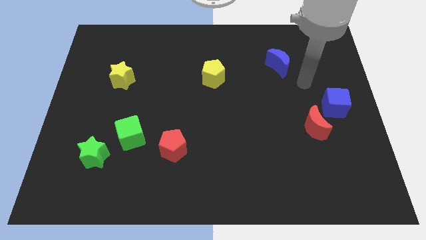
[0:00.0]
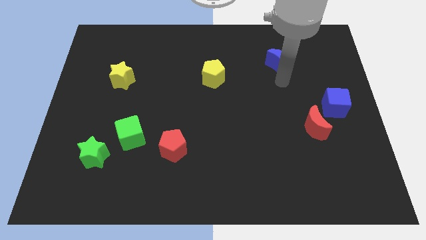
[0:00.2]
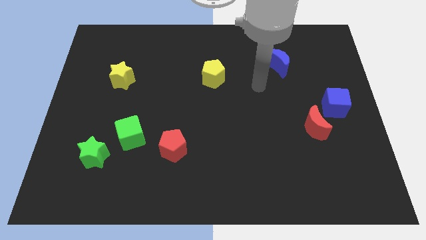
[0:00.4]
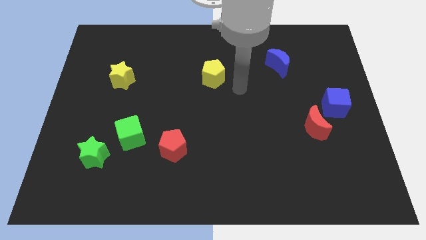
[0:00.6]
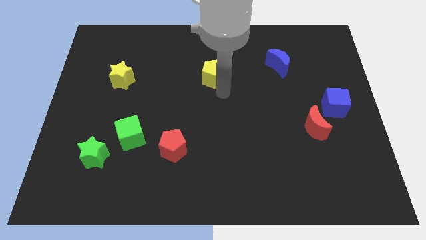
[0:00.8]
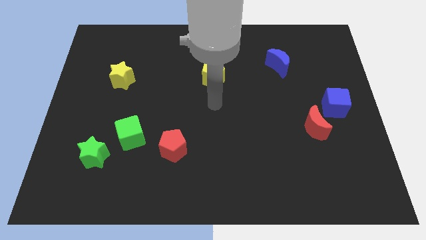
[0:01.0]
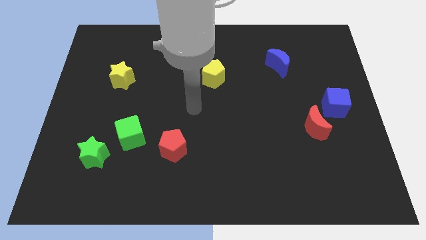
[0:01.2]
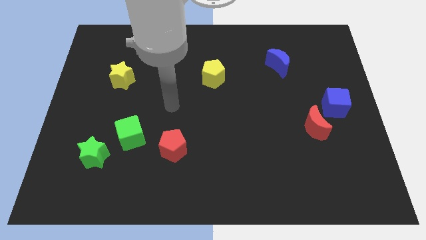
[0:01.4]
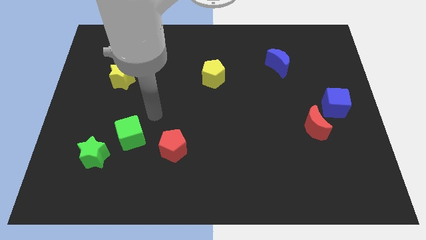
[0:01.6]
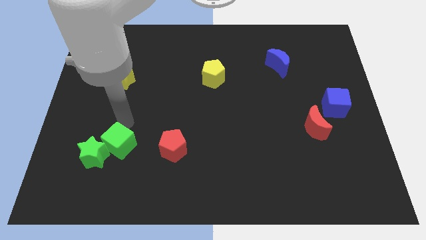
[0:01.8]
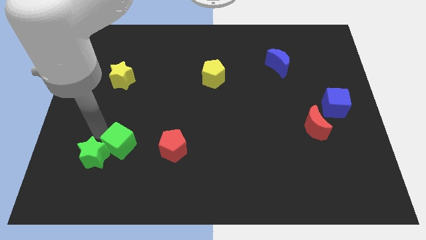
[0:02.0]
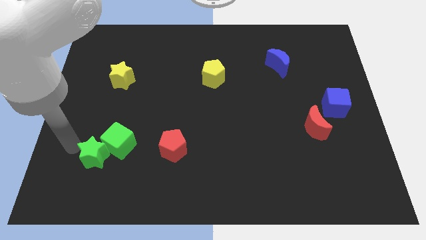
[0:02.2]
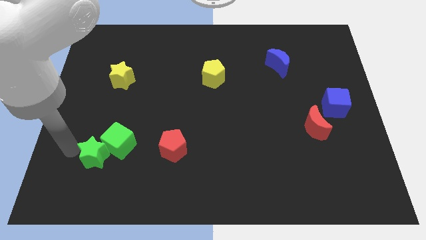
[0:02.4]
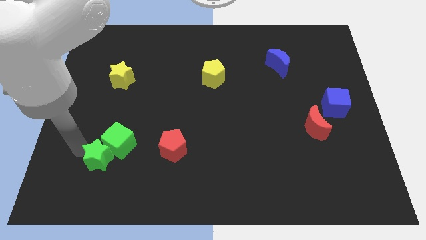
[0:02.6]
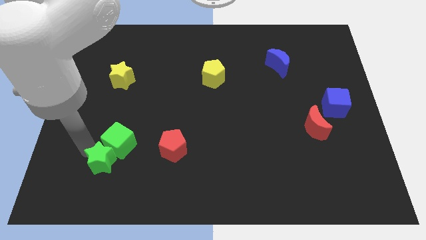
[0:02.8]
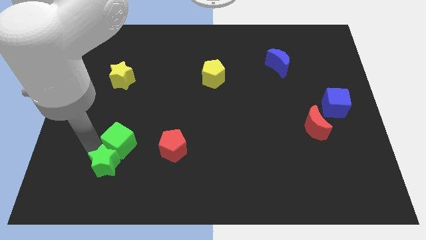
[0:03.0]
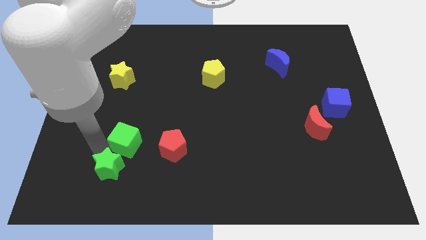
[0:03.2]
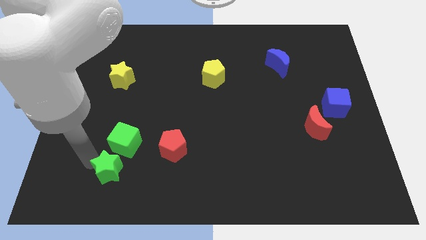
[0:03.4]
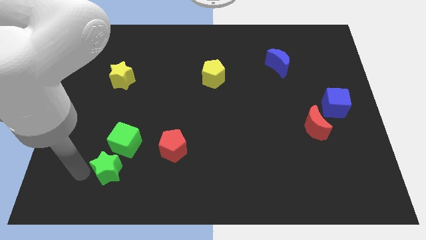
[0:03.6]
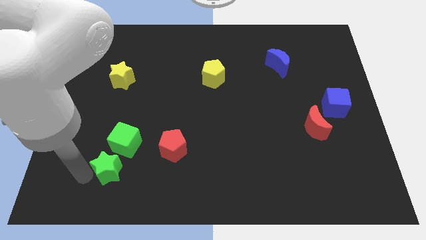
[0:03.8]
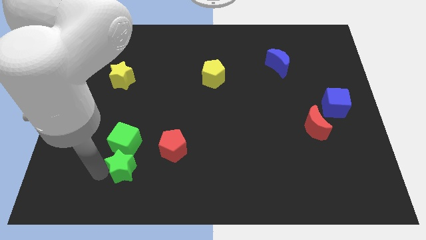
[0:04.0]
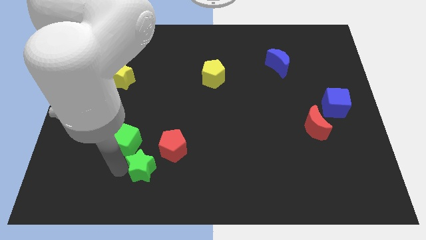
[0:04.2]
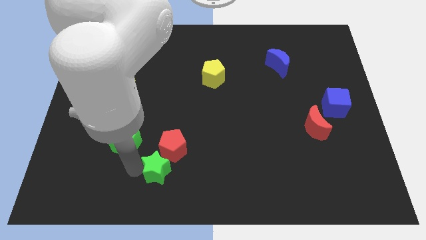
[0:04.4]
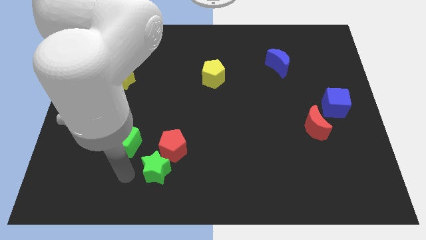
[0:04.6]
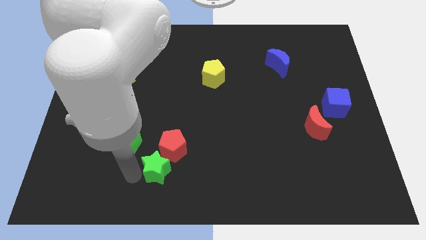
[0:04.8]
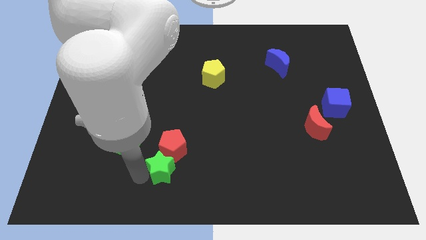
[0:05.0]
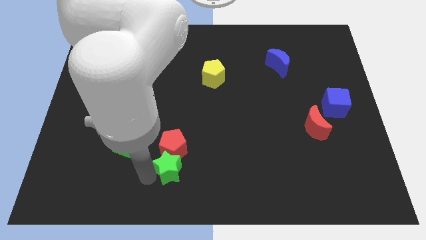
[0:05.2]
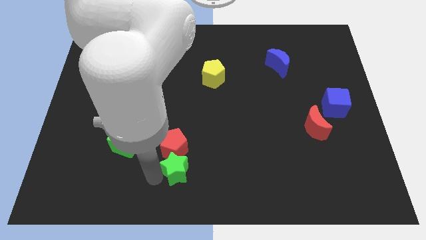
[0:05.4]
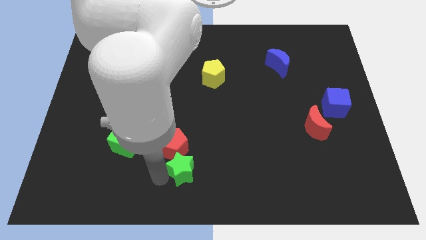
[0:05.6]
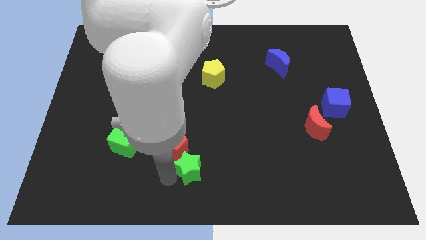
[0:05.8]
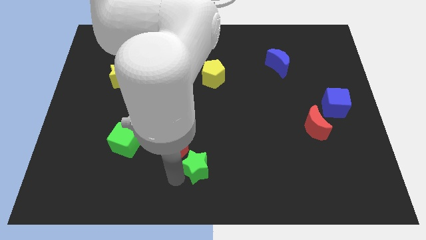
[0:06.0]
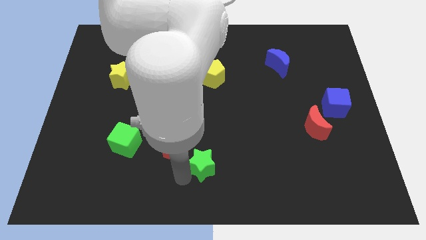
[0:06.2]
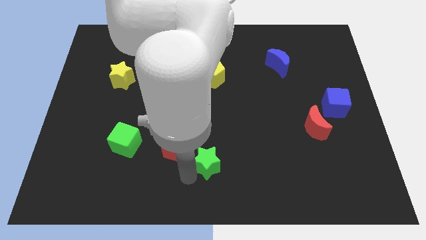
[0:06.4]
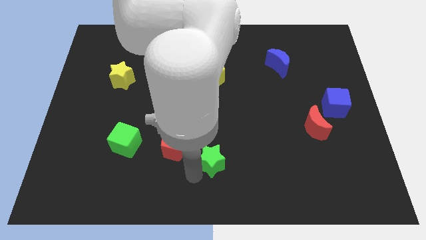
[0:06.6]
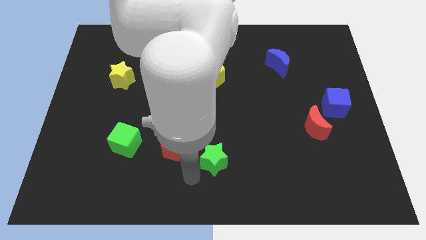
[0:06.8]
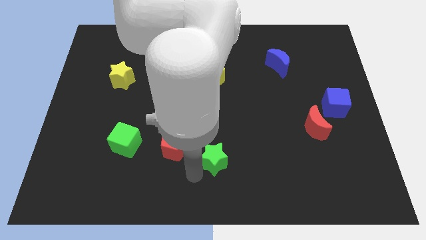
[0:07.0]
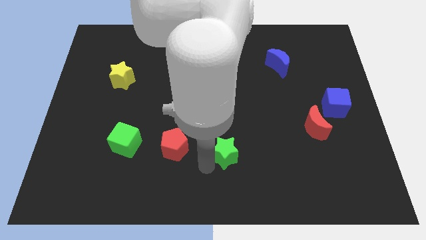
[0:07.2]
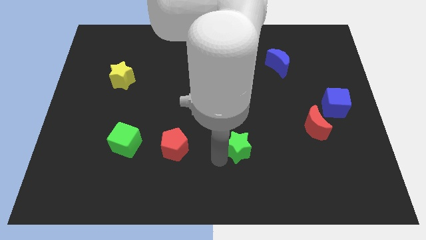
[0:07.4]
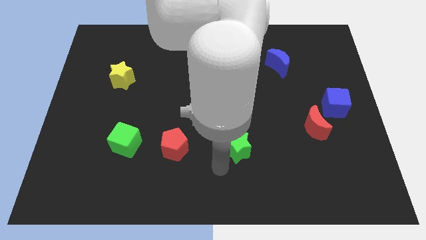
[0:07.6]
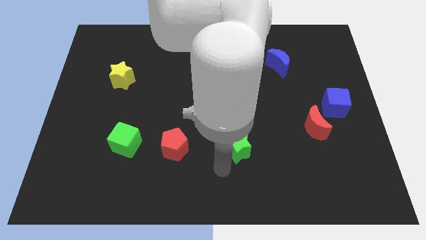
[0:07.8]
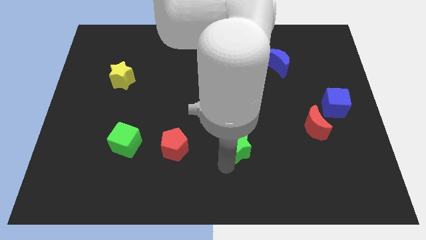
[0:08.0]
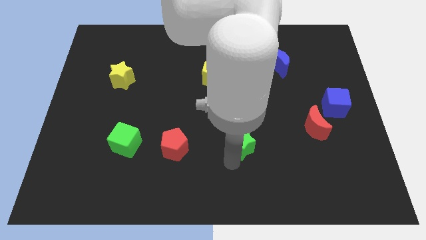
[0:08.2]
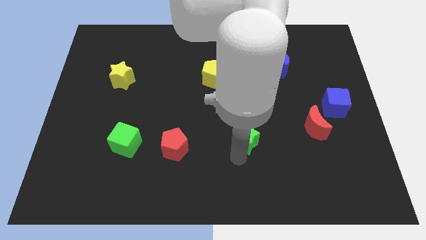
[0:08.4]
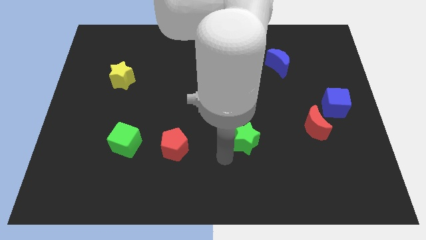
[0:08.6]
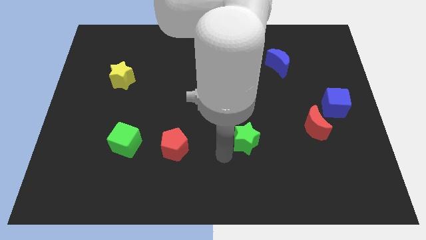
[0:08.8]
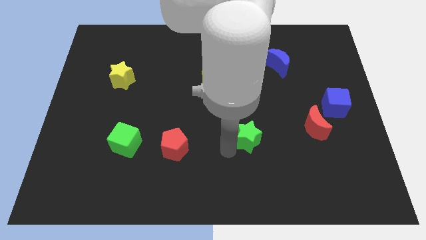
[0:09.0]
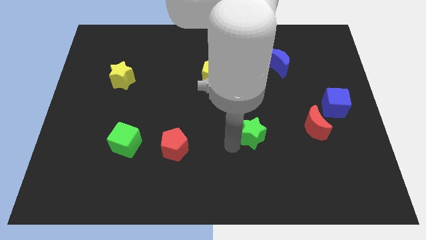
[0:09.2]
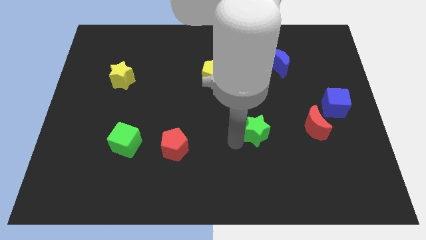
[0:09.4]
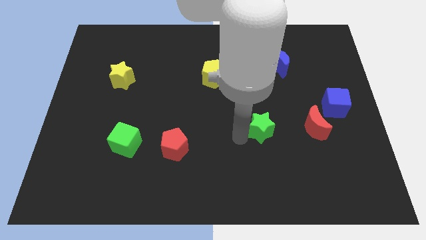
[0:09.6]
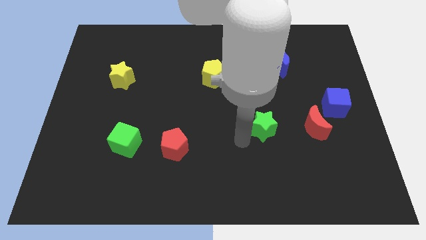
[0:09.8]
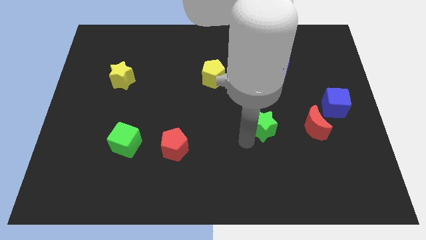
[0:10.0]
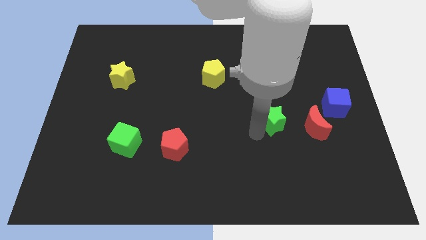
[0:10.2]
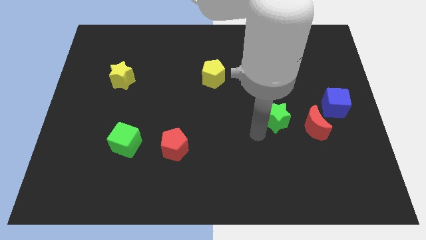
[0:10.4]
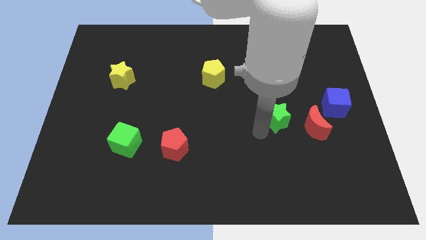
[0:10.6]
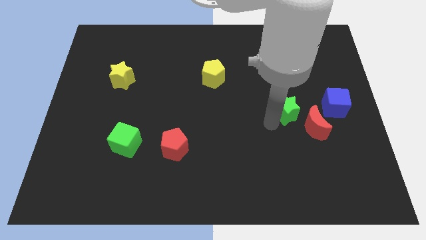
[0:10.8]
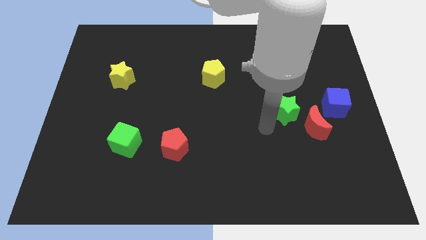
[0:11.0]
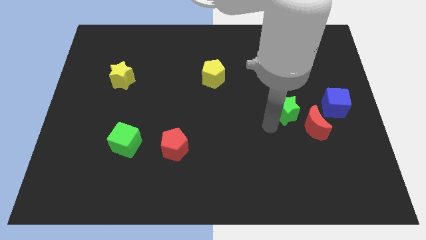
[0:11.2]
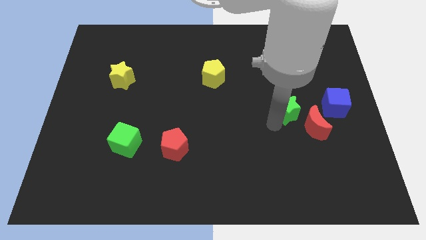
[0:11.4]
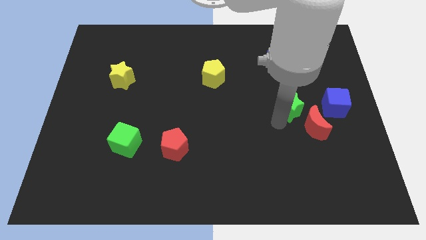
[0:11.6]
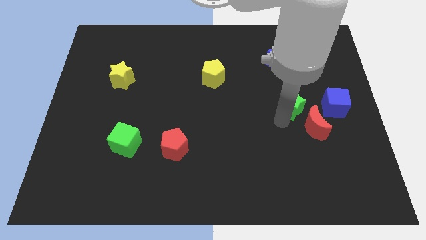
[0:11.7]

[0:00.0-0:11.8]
move the green star above the red moon

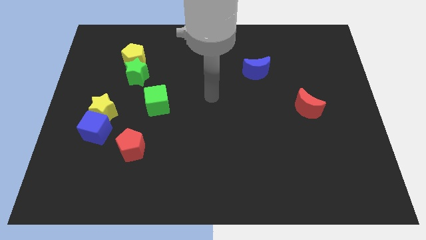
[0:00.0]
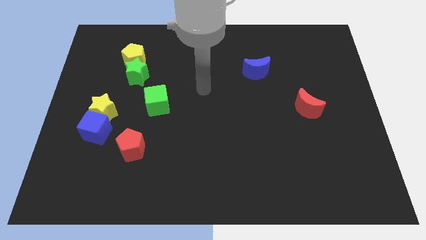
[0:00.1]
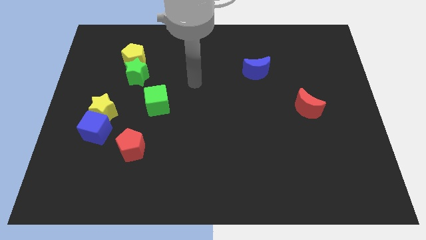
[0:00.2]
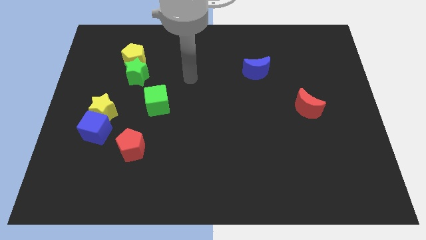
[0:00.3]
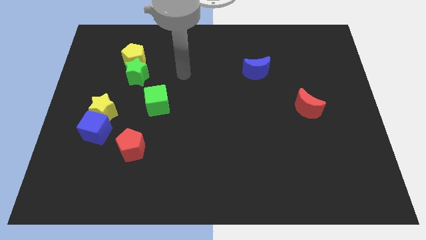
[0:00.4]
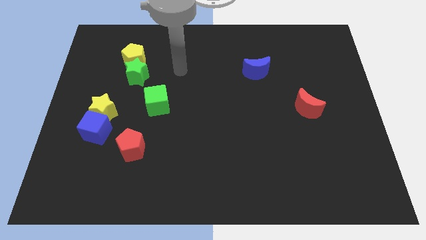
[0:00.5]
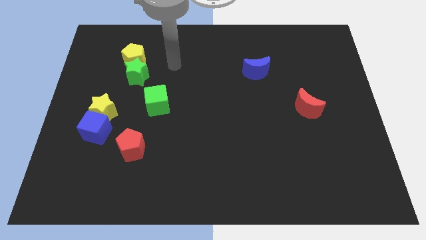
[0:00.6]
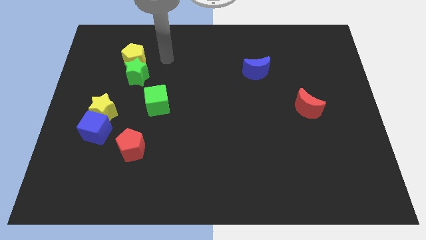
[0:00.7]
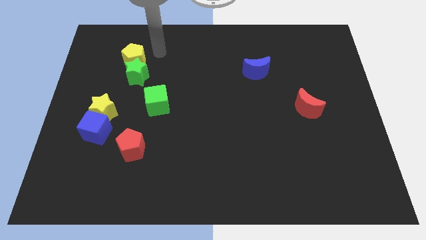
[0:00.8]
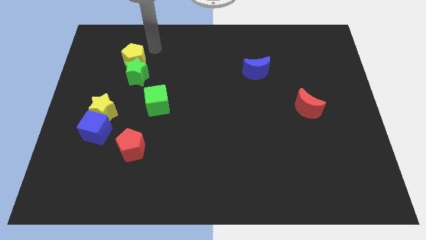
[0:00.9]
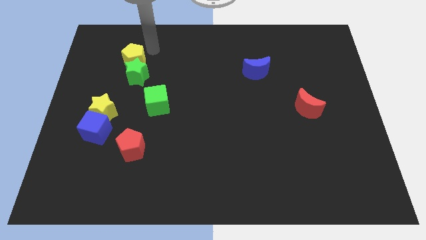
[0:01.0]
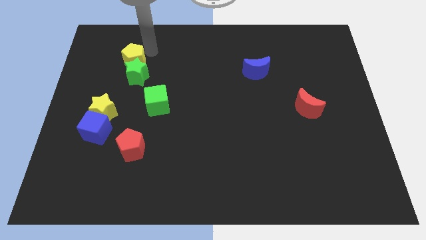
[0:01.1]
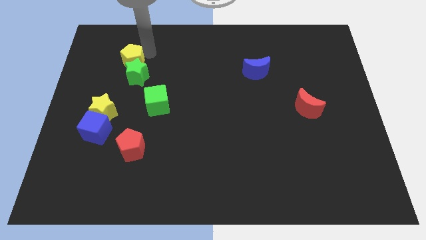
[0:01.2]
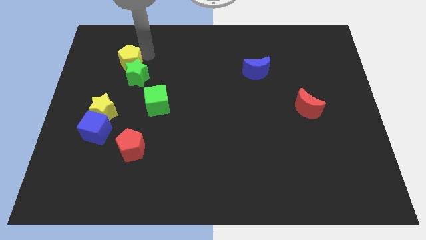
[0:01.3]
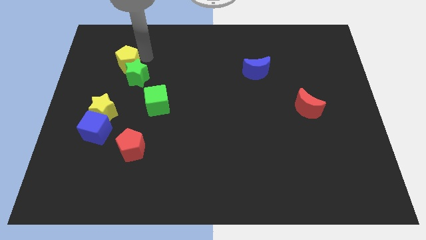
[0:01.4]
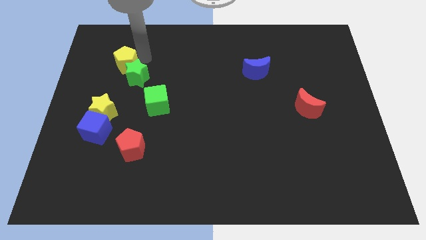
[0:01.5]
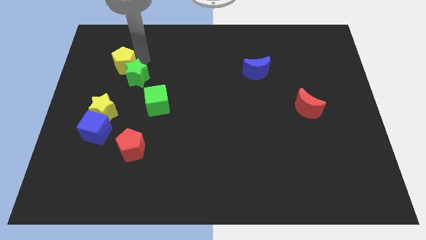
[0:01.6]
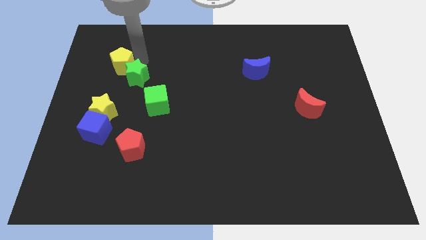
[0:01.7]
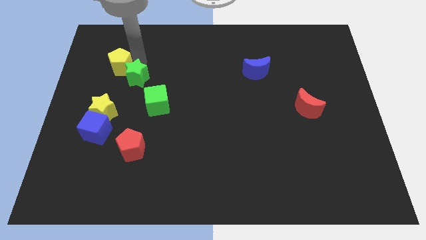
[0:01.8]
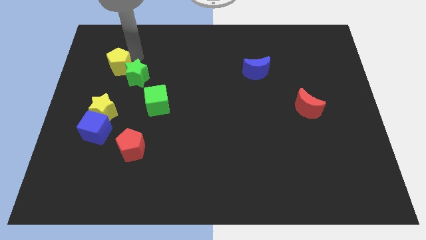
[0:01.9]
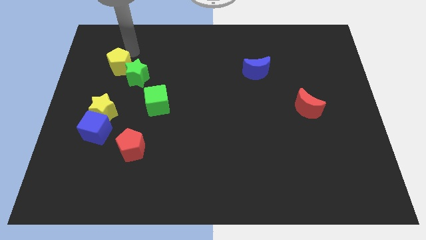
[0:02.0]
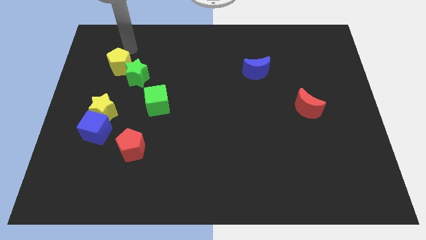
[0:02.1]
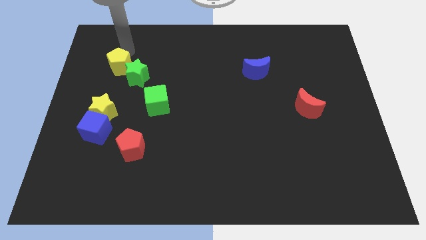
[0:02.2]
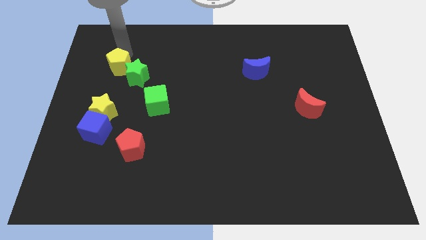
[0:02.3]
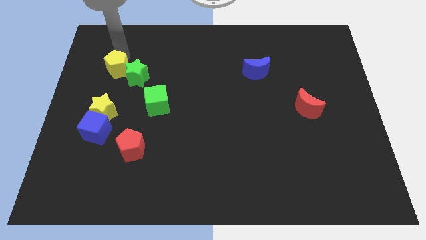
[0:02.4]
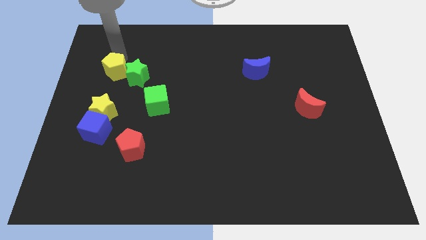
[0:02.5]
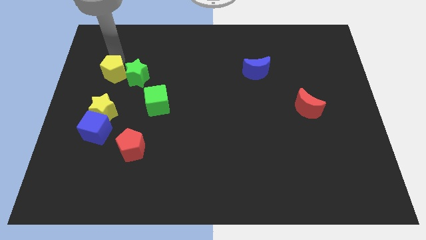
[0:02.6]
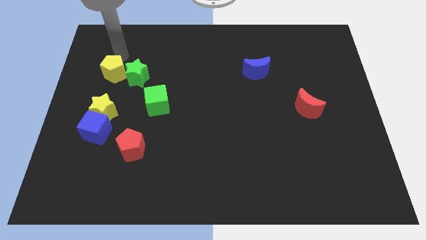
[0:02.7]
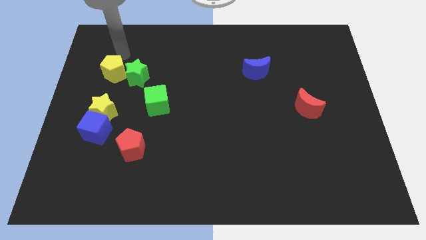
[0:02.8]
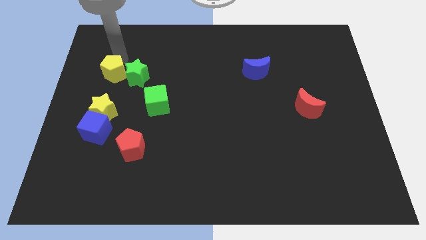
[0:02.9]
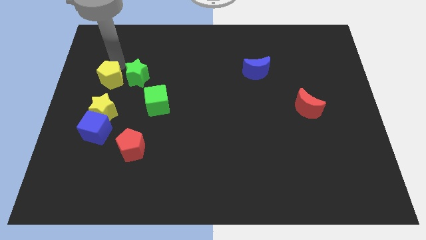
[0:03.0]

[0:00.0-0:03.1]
move the yellow pentagon to the top side of the blue cube
